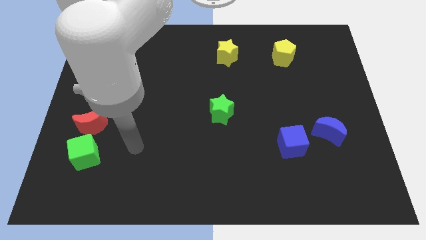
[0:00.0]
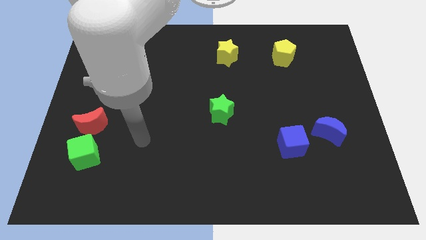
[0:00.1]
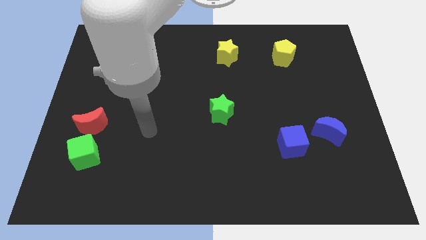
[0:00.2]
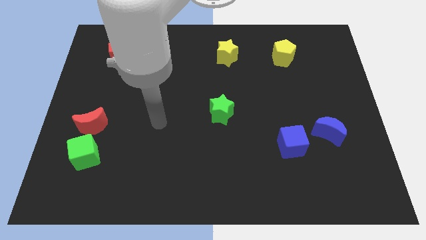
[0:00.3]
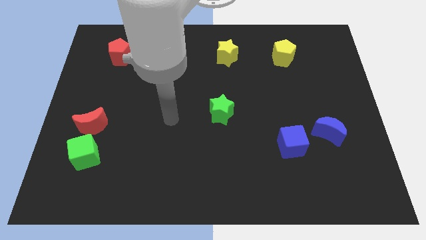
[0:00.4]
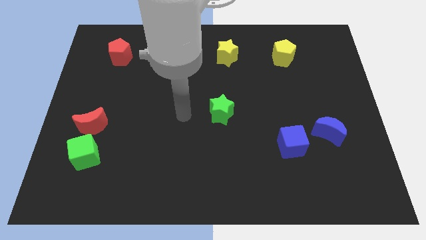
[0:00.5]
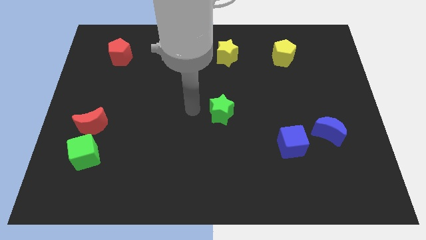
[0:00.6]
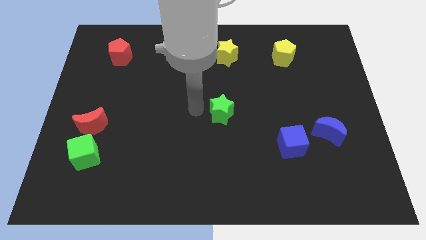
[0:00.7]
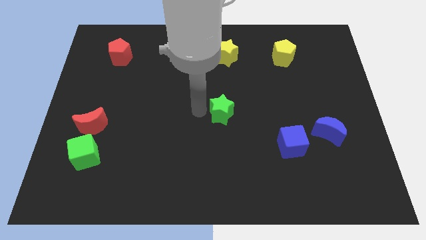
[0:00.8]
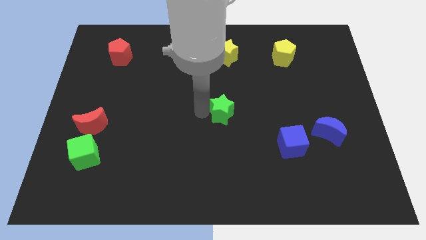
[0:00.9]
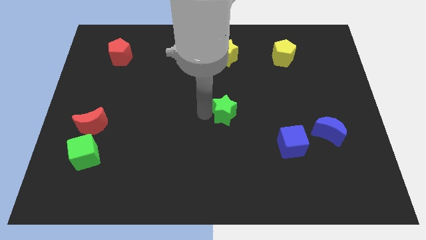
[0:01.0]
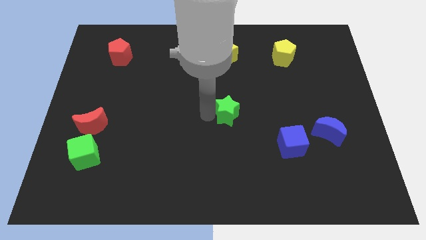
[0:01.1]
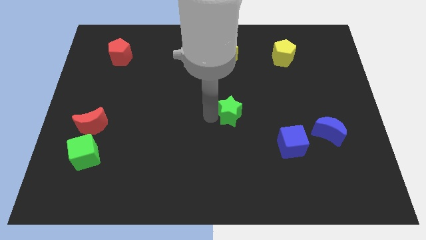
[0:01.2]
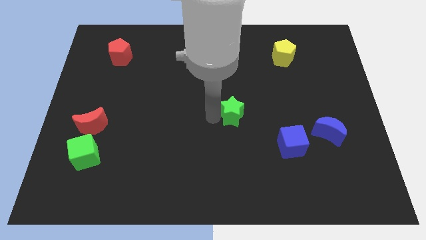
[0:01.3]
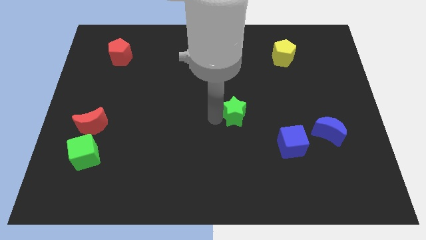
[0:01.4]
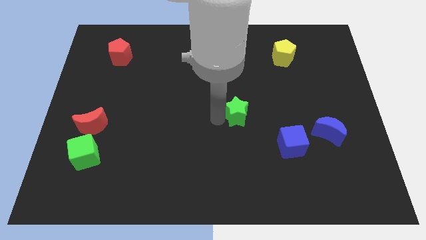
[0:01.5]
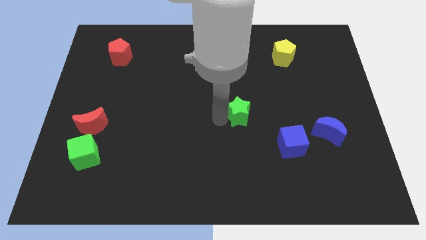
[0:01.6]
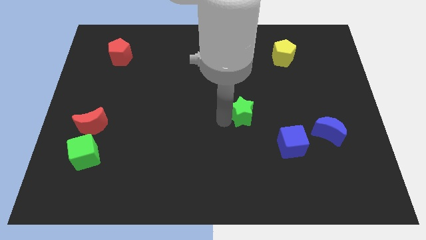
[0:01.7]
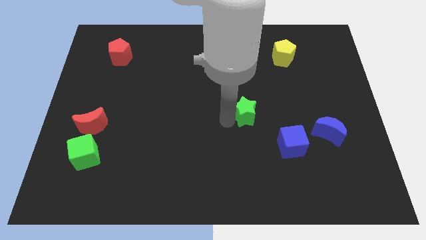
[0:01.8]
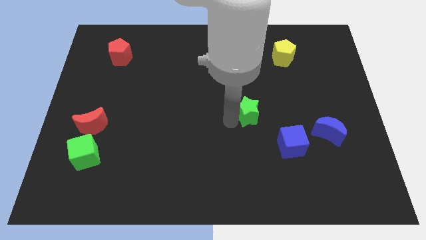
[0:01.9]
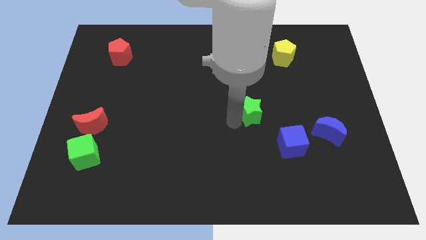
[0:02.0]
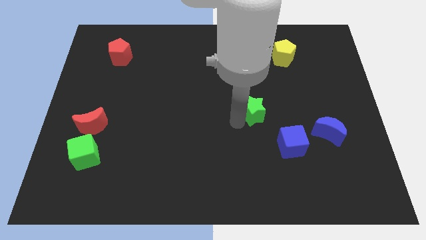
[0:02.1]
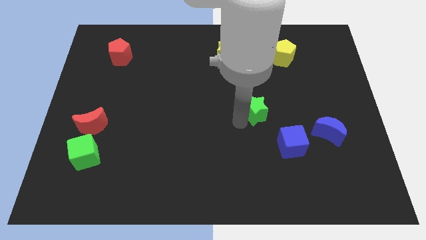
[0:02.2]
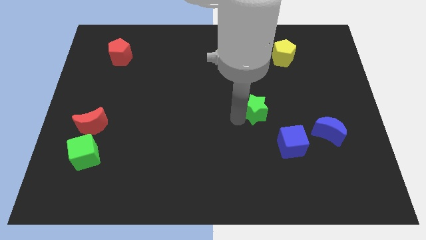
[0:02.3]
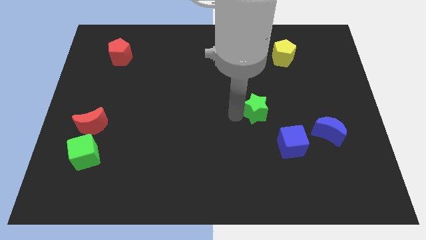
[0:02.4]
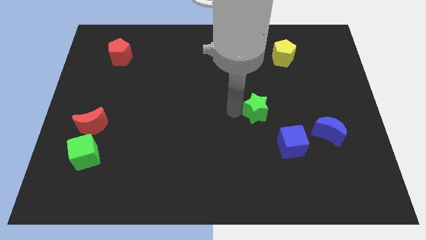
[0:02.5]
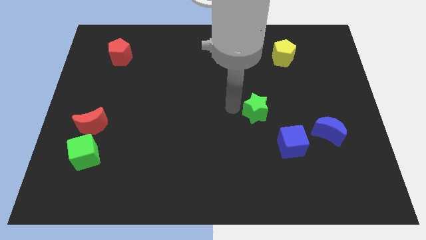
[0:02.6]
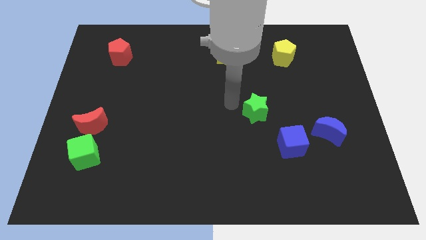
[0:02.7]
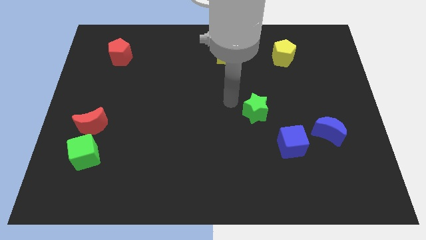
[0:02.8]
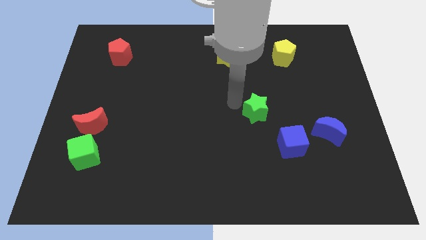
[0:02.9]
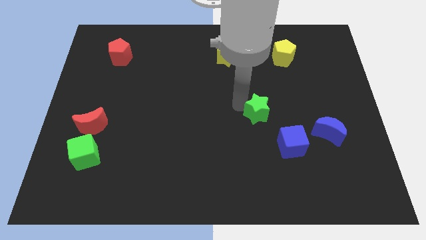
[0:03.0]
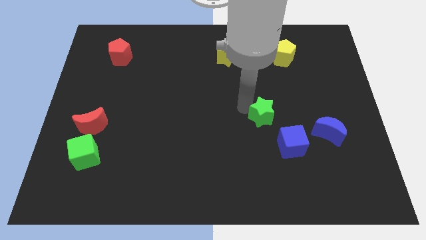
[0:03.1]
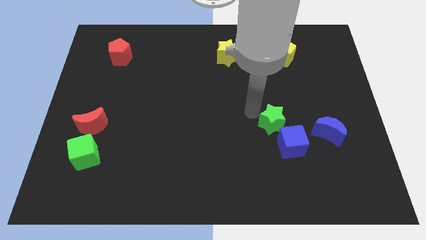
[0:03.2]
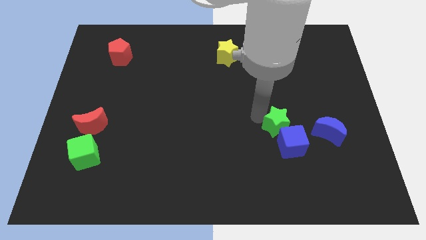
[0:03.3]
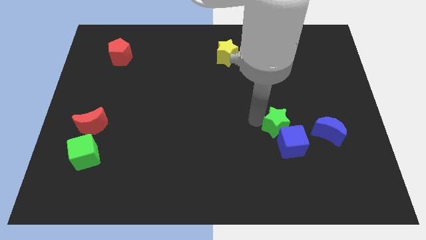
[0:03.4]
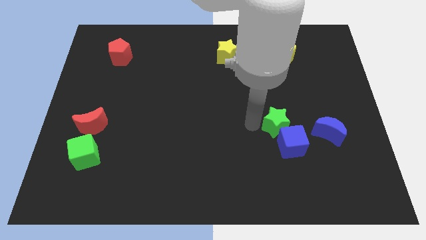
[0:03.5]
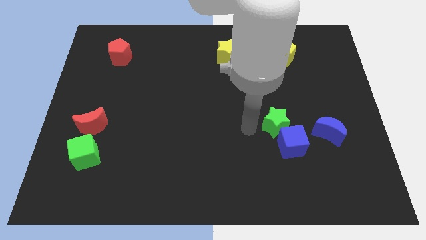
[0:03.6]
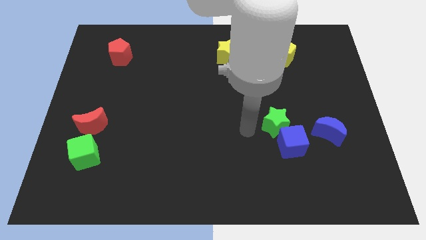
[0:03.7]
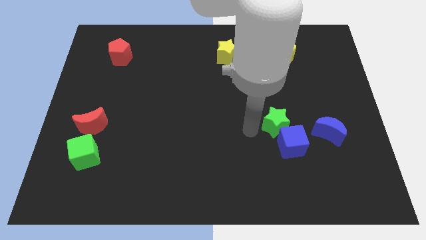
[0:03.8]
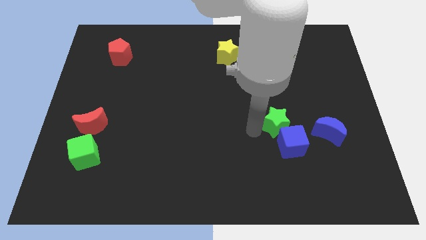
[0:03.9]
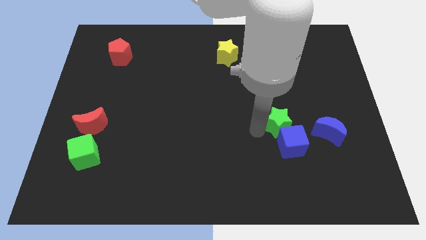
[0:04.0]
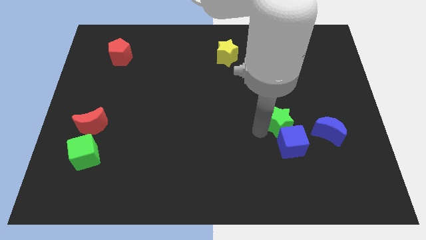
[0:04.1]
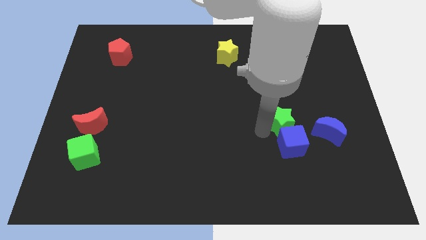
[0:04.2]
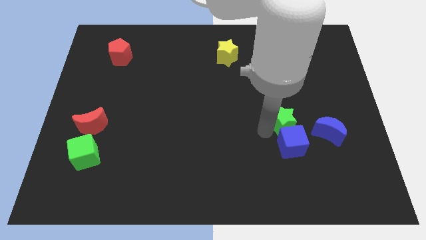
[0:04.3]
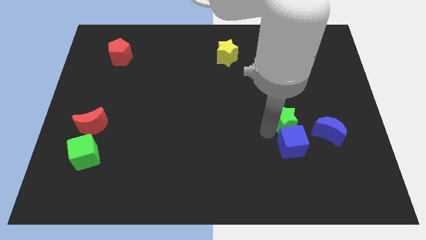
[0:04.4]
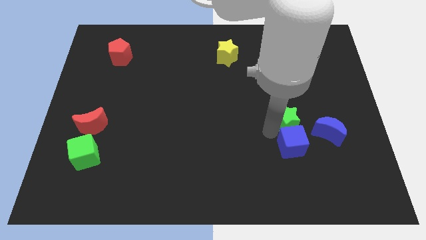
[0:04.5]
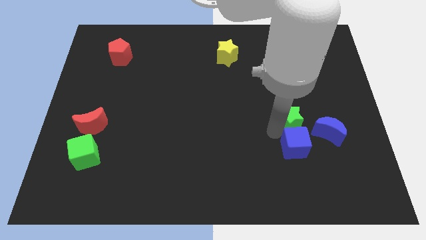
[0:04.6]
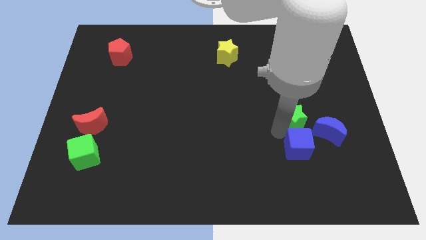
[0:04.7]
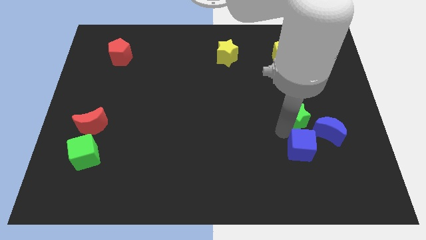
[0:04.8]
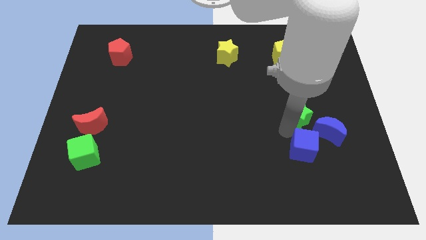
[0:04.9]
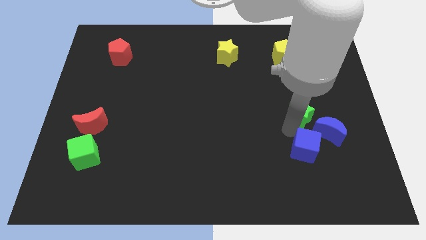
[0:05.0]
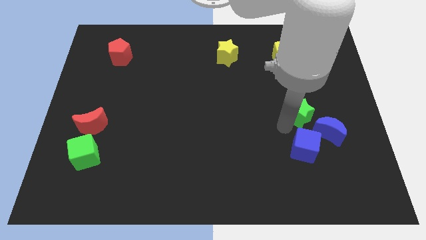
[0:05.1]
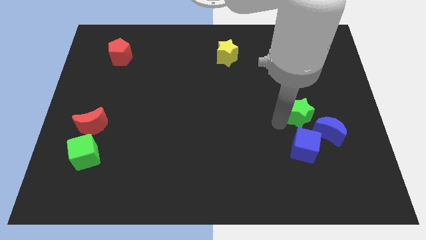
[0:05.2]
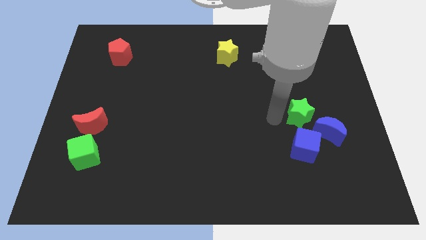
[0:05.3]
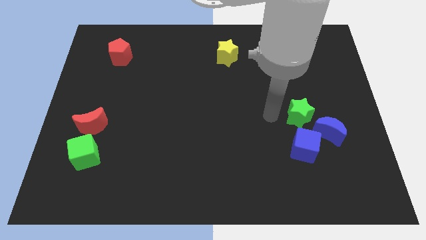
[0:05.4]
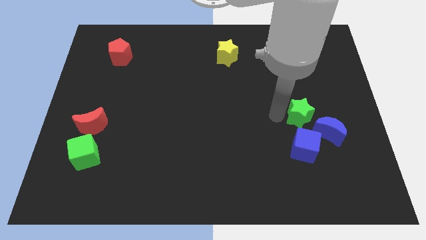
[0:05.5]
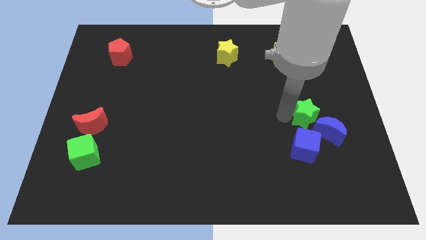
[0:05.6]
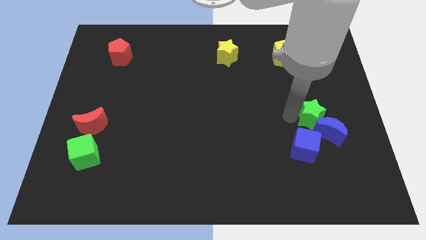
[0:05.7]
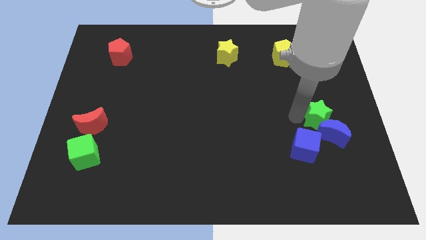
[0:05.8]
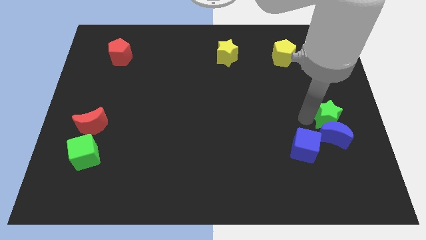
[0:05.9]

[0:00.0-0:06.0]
slide the green star to the center right

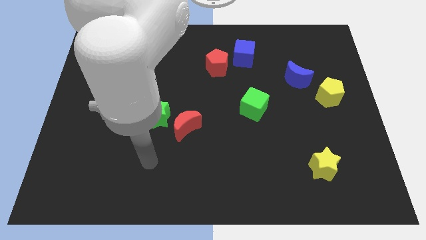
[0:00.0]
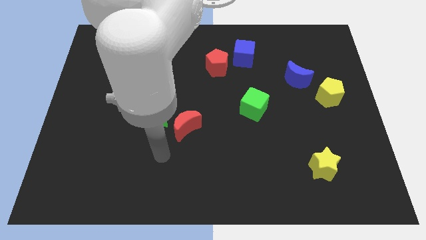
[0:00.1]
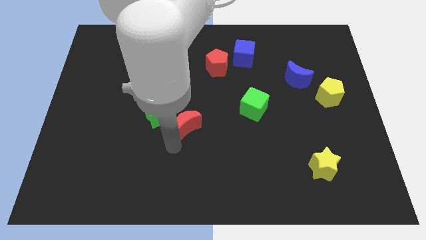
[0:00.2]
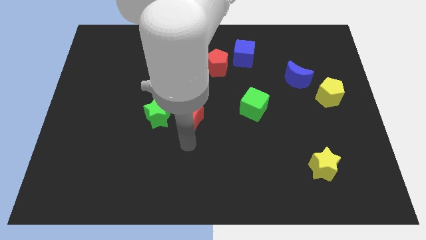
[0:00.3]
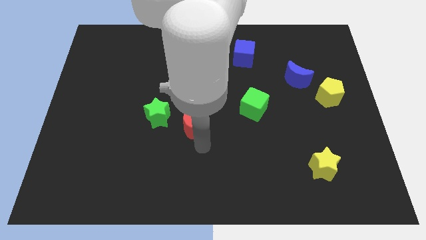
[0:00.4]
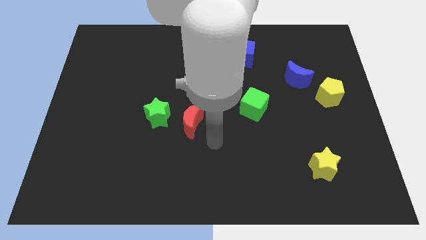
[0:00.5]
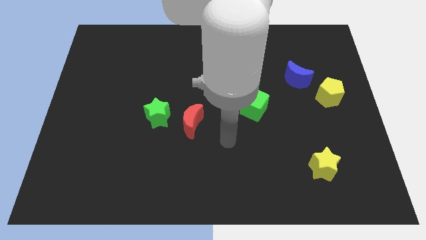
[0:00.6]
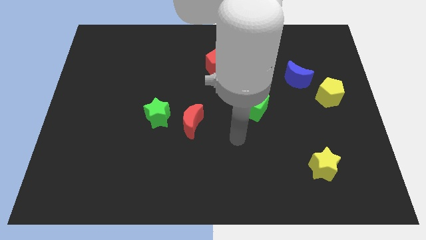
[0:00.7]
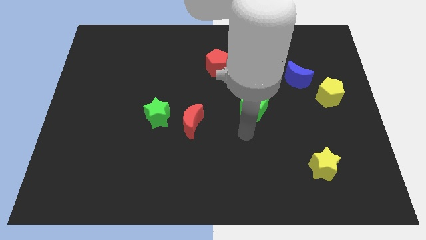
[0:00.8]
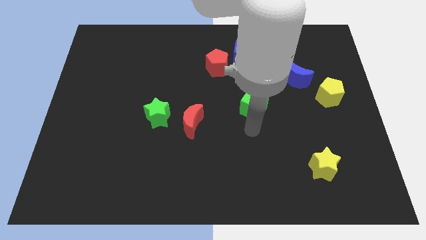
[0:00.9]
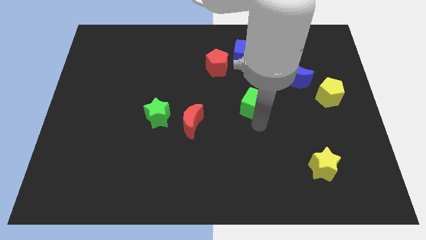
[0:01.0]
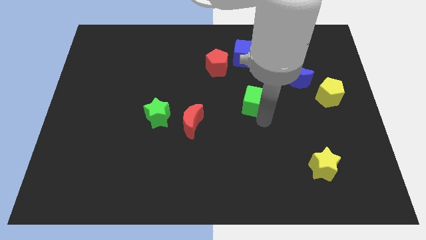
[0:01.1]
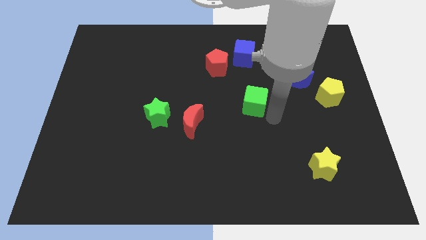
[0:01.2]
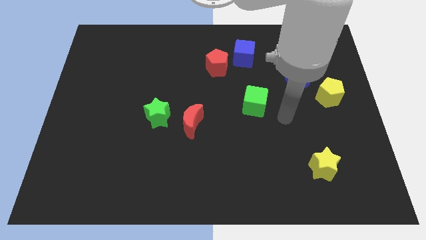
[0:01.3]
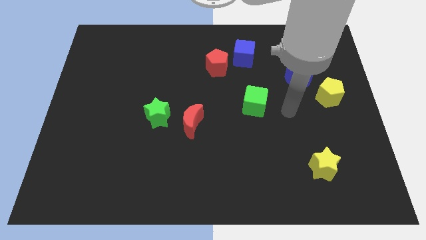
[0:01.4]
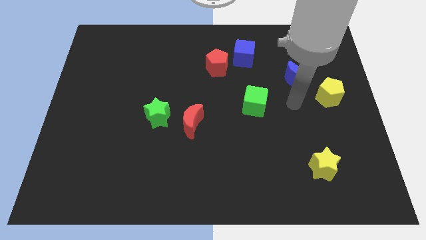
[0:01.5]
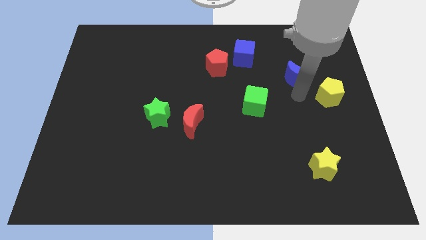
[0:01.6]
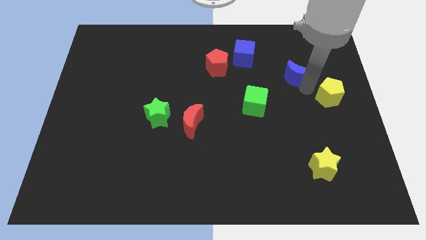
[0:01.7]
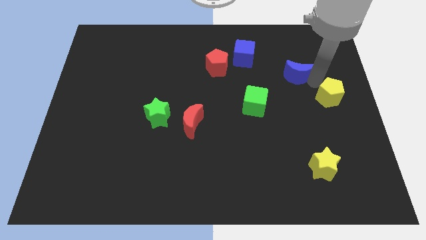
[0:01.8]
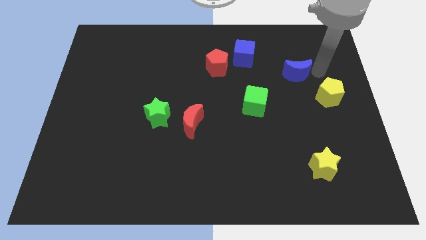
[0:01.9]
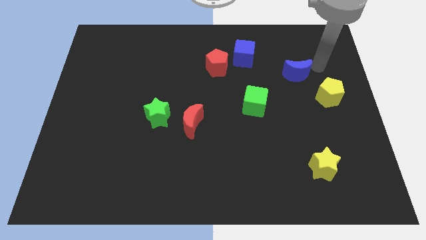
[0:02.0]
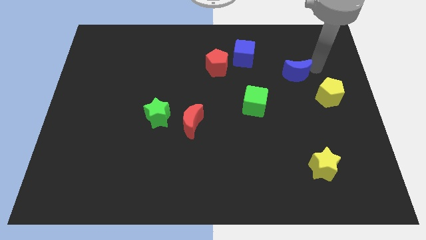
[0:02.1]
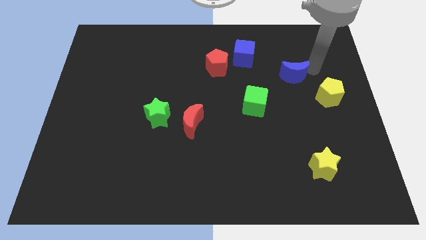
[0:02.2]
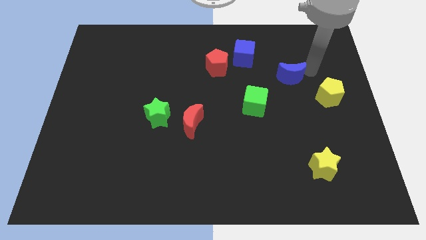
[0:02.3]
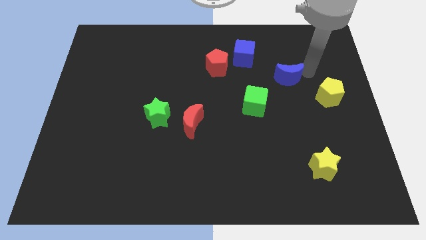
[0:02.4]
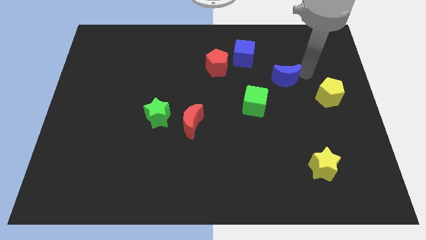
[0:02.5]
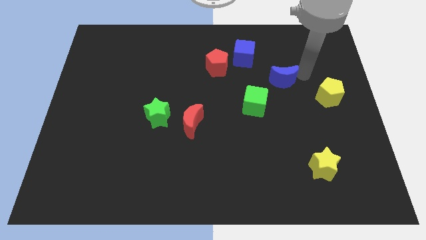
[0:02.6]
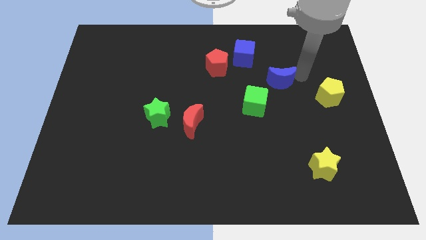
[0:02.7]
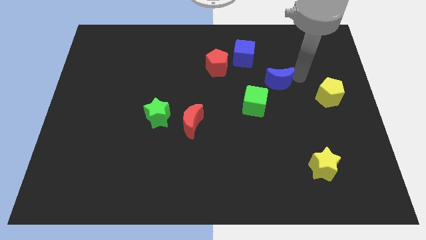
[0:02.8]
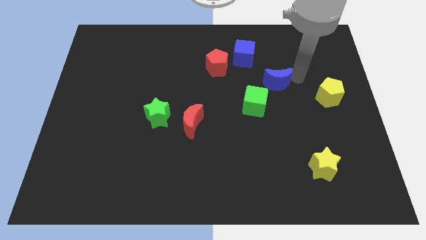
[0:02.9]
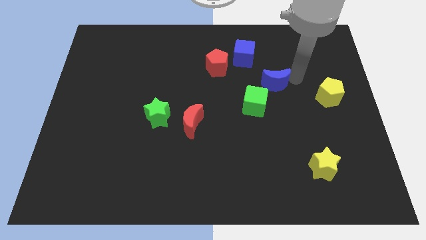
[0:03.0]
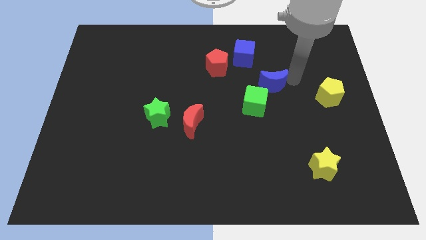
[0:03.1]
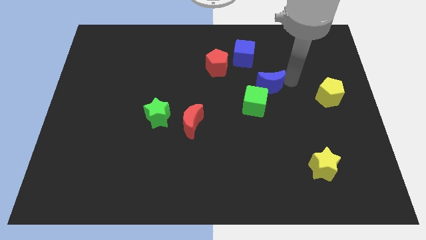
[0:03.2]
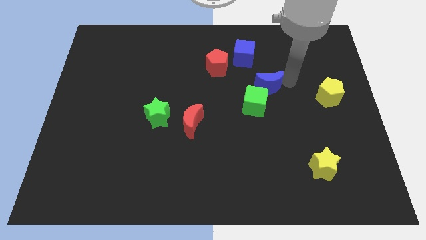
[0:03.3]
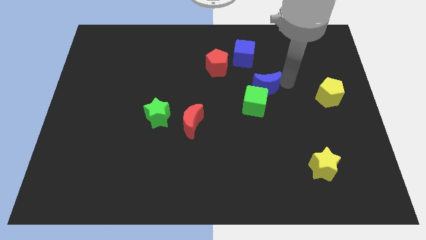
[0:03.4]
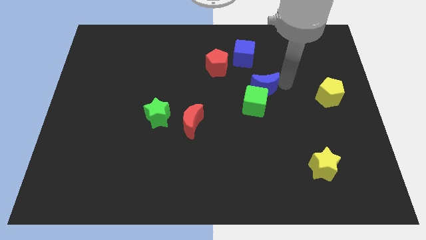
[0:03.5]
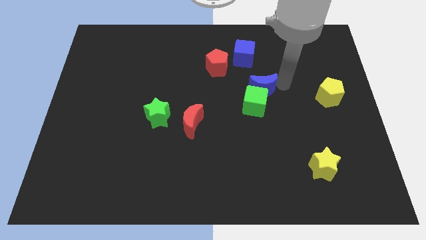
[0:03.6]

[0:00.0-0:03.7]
put the blue moon to the middle of the board
